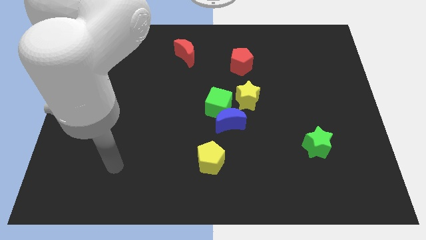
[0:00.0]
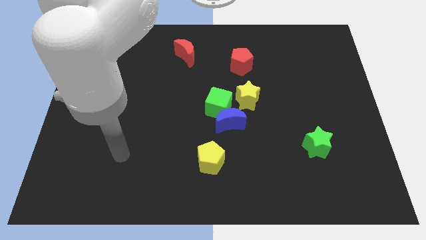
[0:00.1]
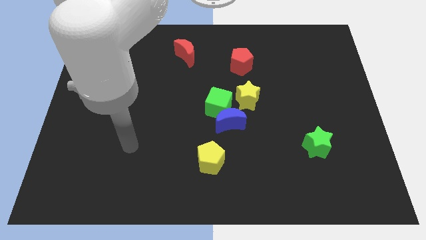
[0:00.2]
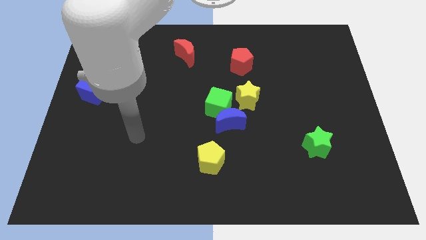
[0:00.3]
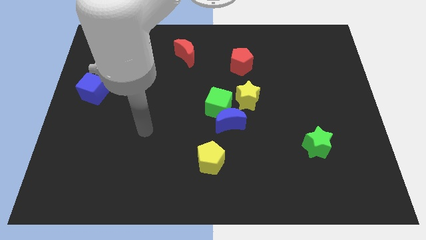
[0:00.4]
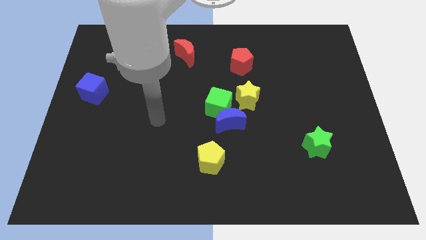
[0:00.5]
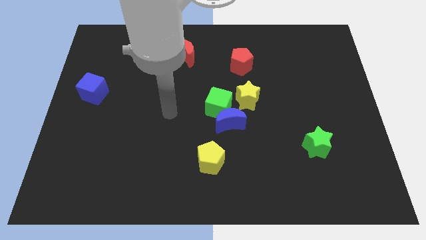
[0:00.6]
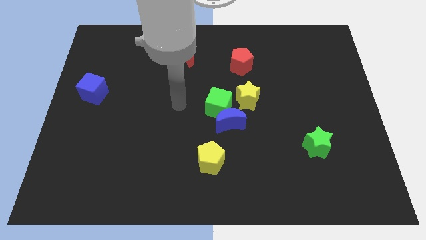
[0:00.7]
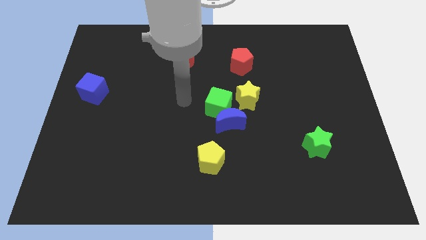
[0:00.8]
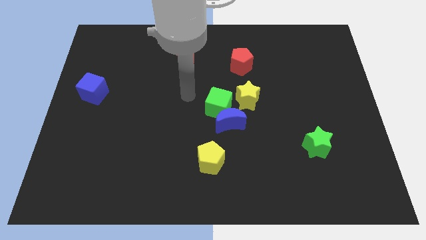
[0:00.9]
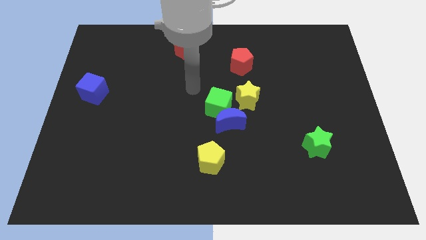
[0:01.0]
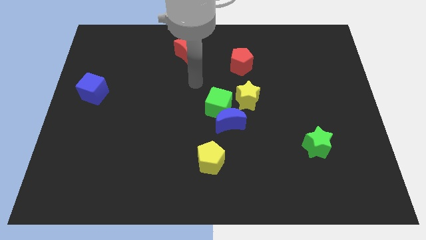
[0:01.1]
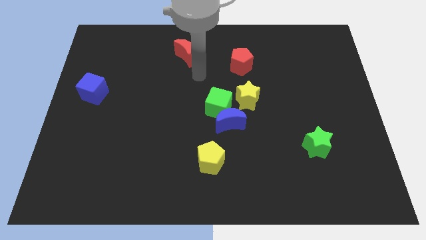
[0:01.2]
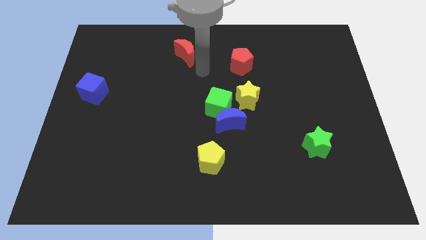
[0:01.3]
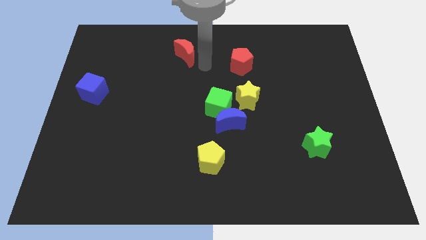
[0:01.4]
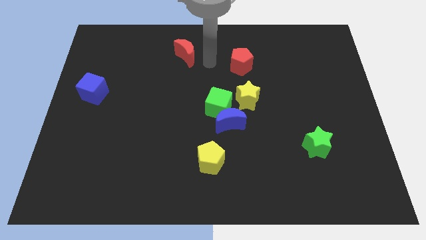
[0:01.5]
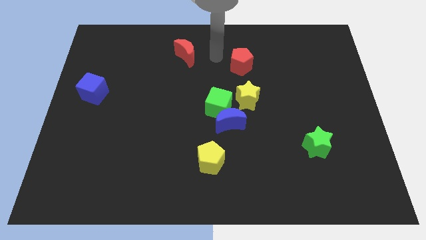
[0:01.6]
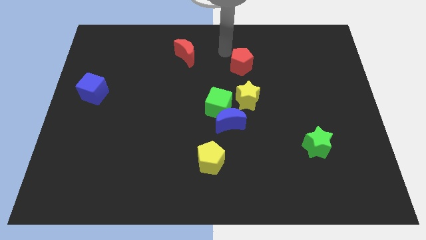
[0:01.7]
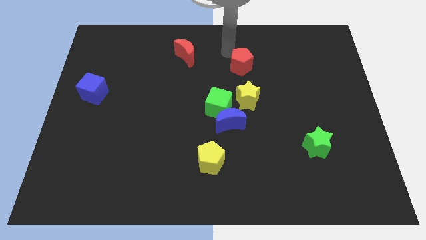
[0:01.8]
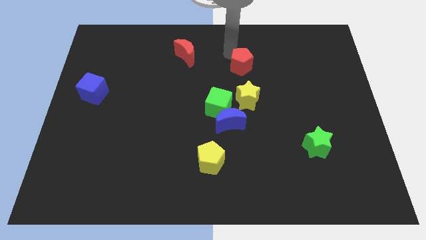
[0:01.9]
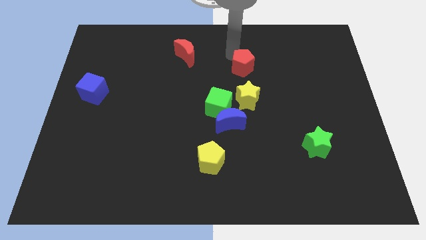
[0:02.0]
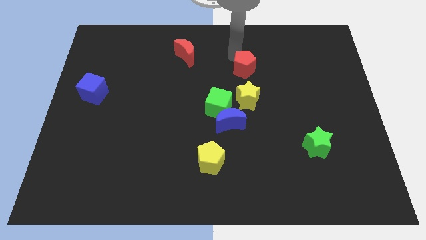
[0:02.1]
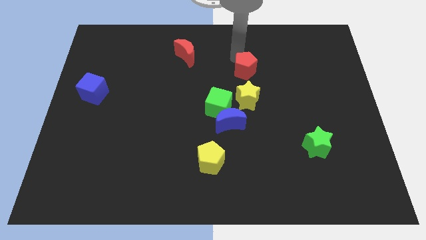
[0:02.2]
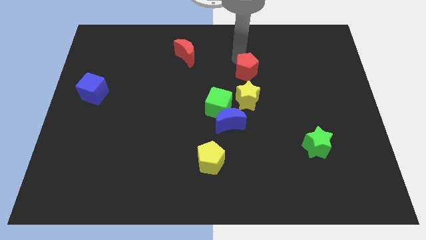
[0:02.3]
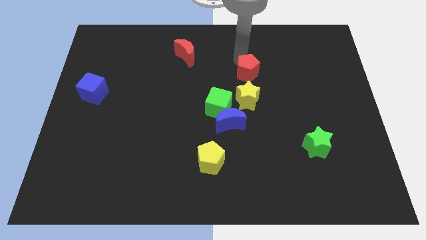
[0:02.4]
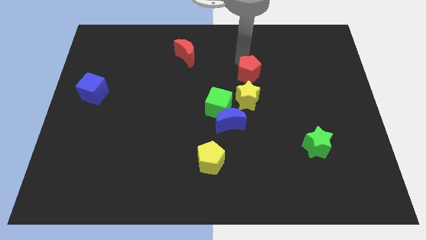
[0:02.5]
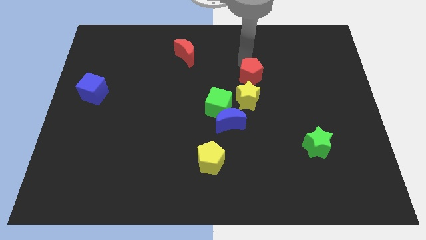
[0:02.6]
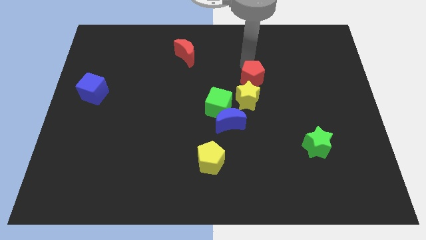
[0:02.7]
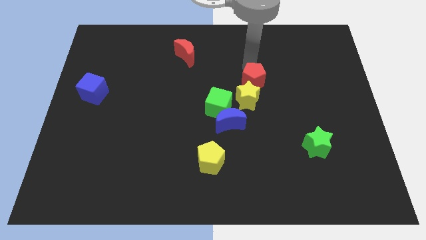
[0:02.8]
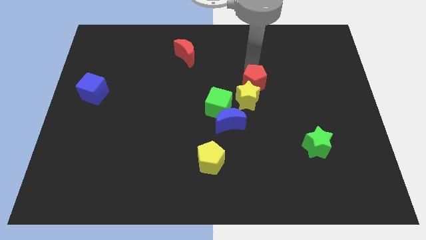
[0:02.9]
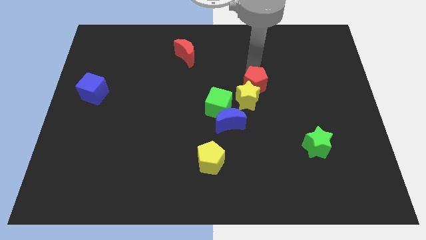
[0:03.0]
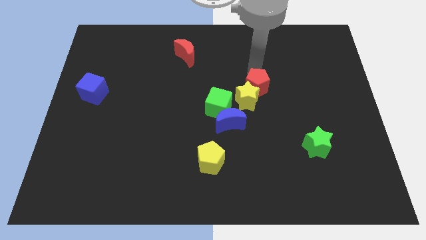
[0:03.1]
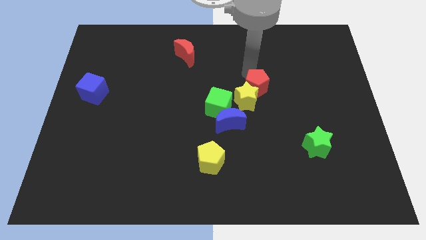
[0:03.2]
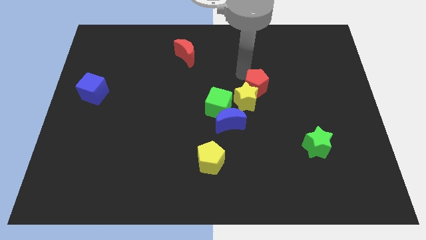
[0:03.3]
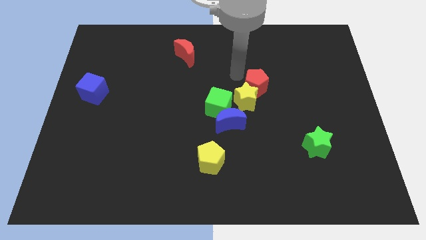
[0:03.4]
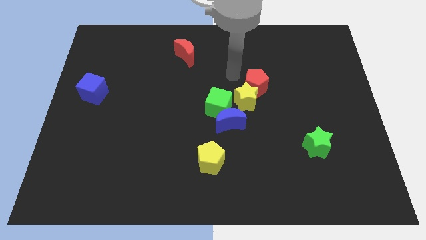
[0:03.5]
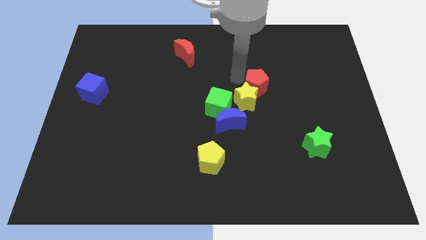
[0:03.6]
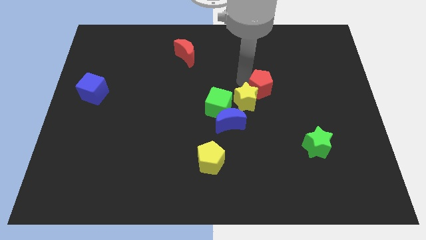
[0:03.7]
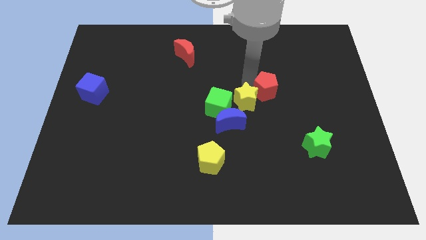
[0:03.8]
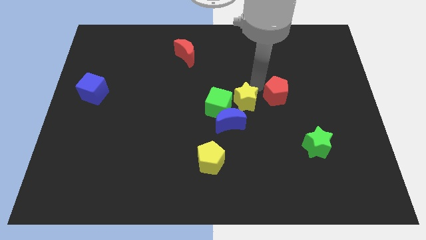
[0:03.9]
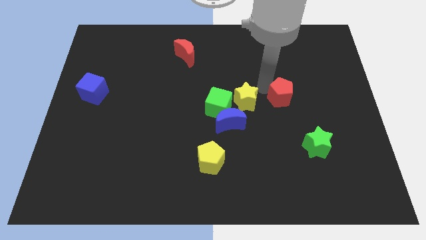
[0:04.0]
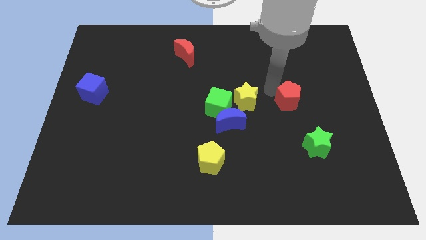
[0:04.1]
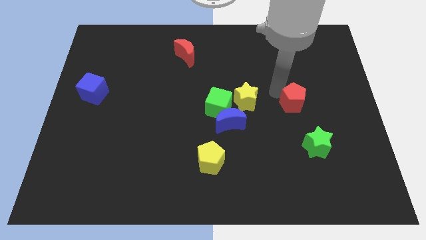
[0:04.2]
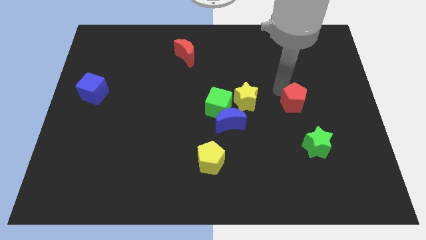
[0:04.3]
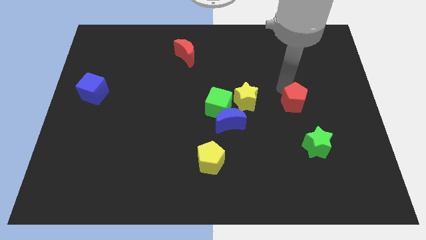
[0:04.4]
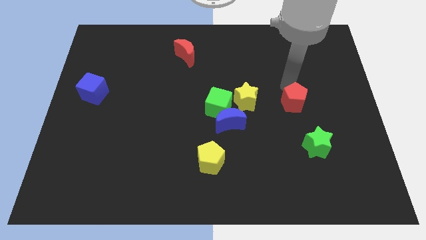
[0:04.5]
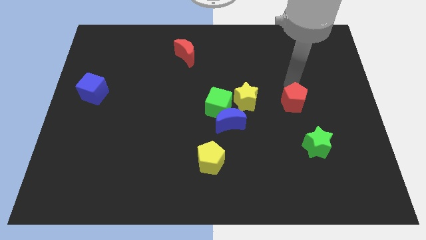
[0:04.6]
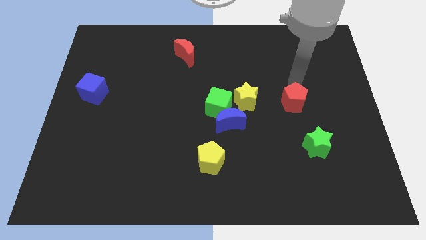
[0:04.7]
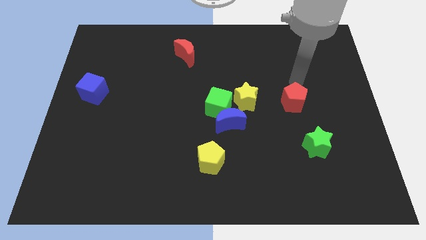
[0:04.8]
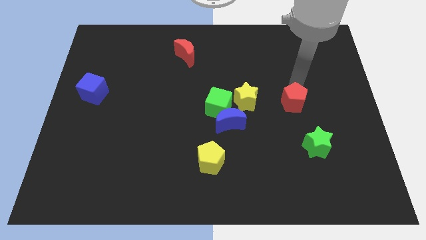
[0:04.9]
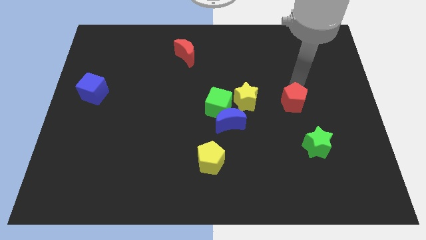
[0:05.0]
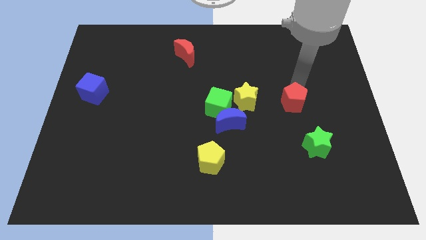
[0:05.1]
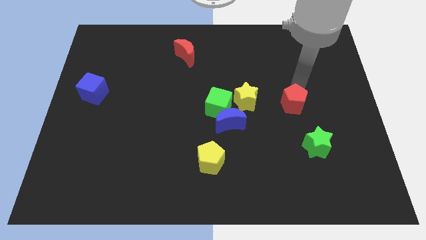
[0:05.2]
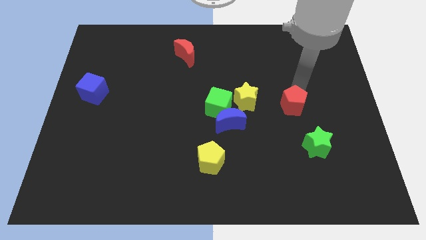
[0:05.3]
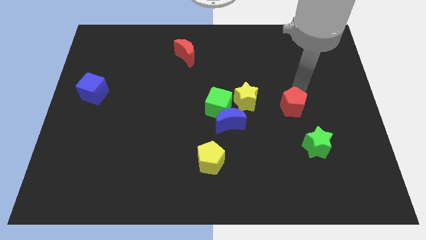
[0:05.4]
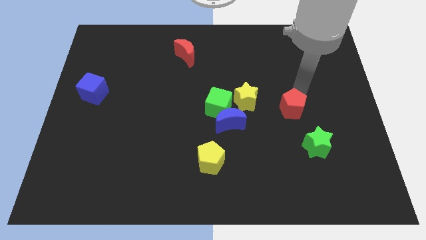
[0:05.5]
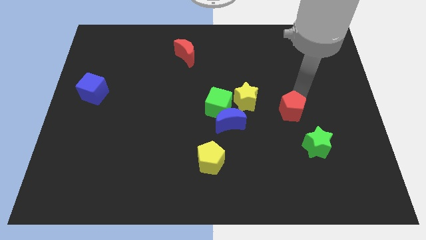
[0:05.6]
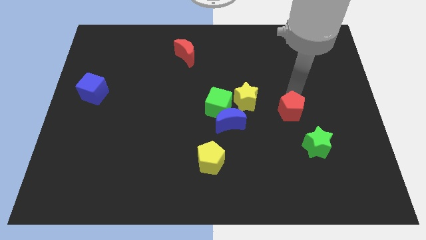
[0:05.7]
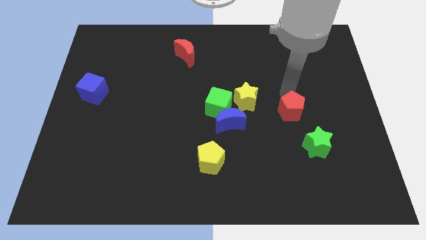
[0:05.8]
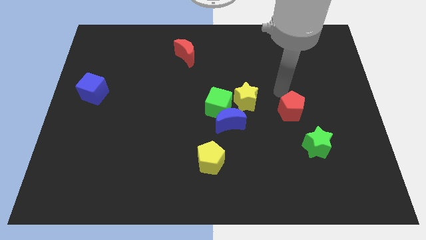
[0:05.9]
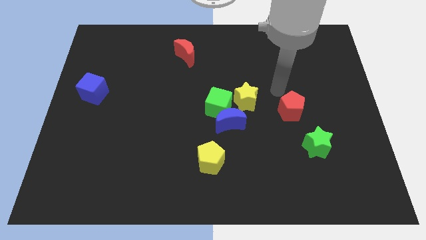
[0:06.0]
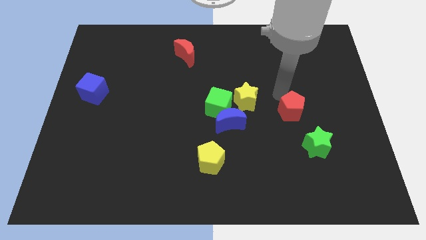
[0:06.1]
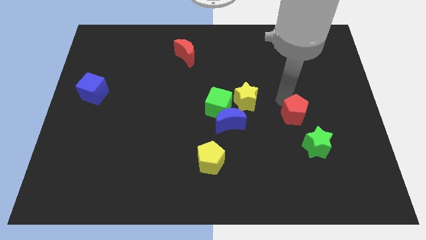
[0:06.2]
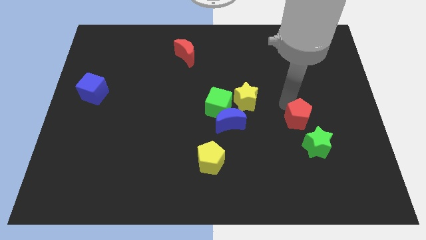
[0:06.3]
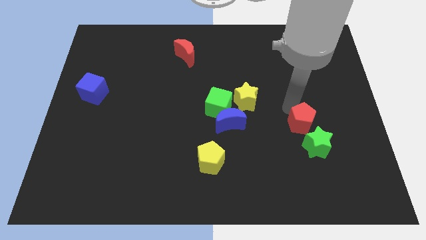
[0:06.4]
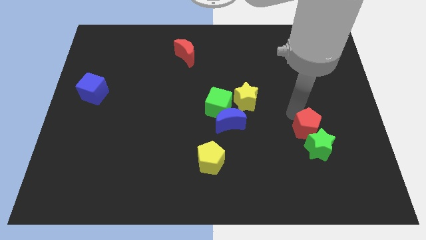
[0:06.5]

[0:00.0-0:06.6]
put the red pentagon towards the green star

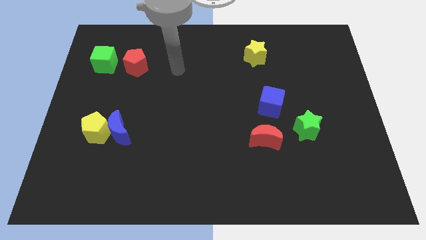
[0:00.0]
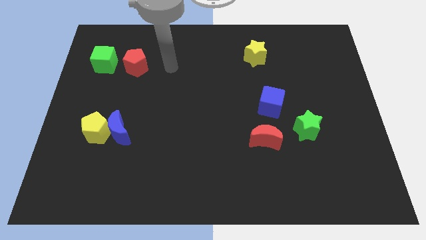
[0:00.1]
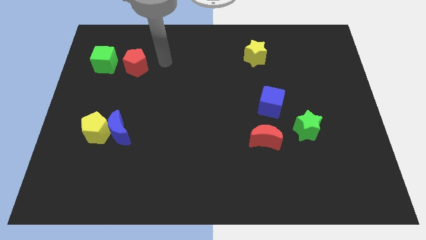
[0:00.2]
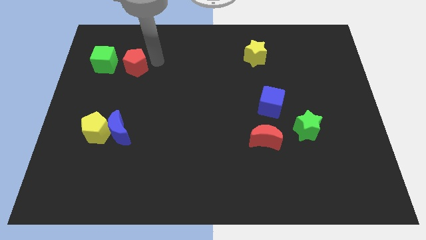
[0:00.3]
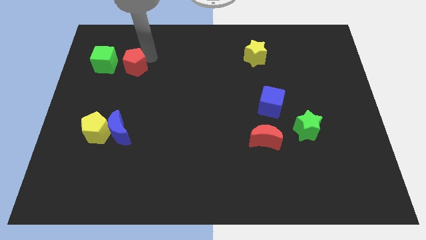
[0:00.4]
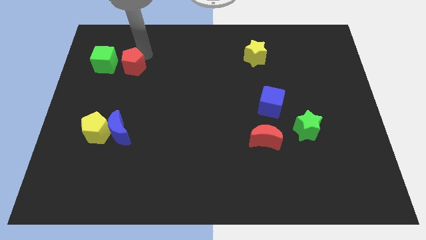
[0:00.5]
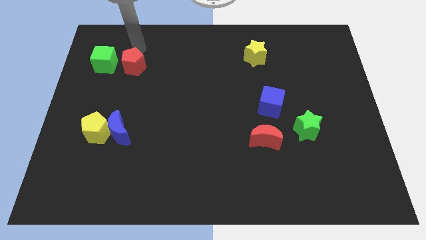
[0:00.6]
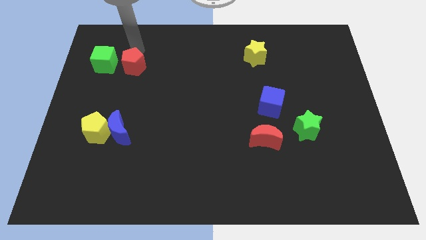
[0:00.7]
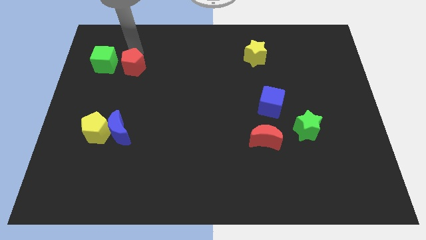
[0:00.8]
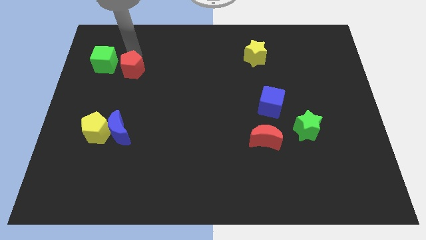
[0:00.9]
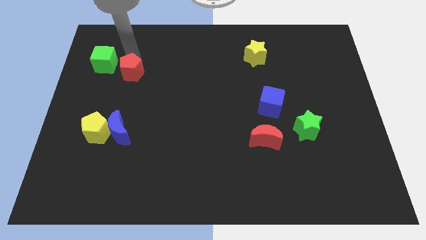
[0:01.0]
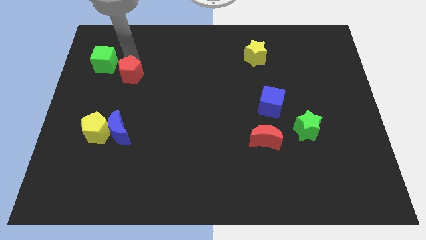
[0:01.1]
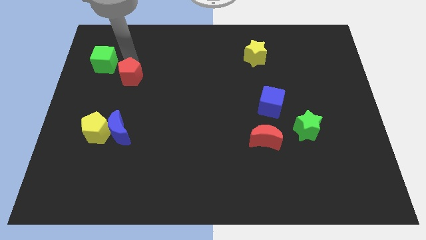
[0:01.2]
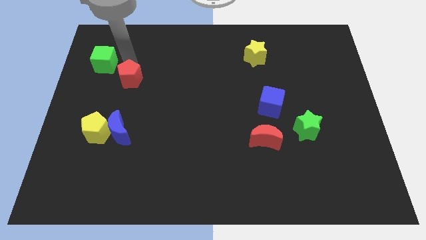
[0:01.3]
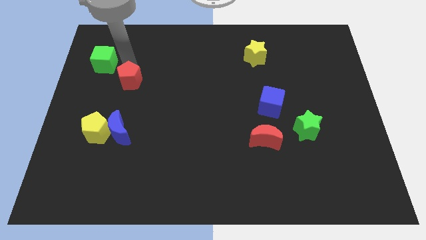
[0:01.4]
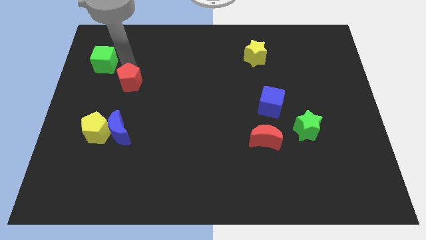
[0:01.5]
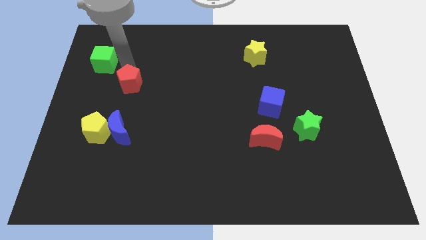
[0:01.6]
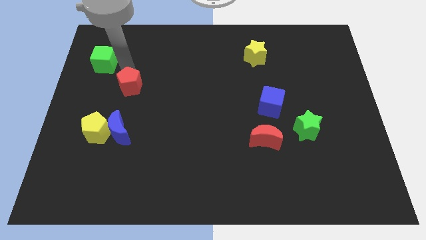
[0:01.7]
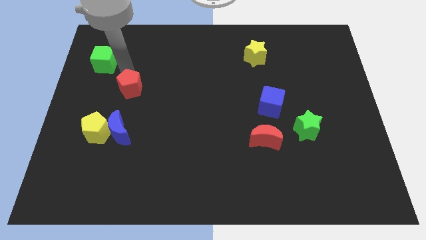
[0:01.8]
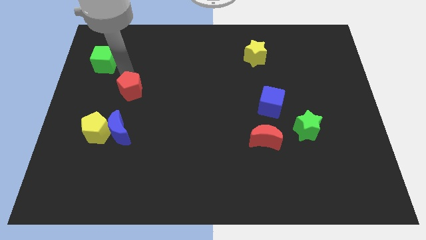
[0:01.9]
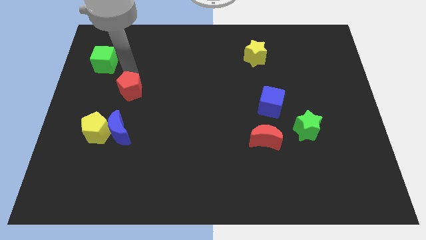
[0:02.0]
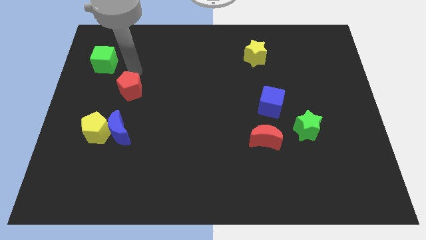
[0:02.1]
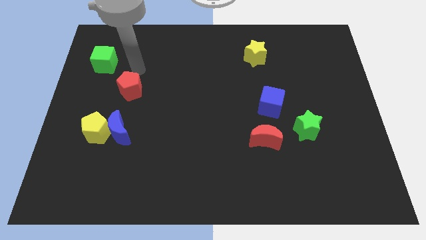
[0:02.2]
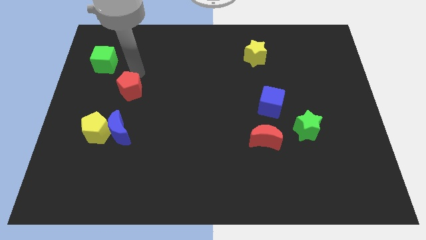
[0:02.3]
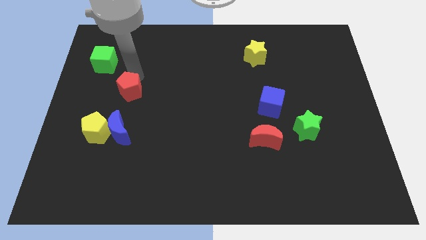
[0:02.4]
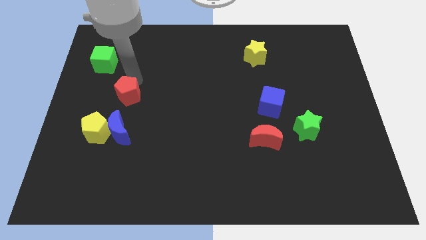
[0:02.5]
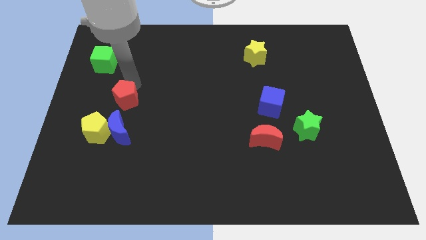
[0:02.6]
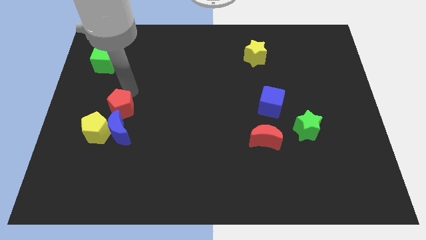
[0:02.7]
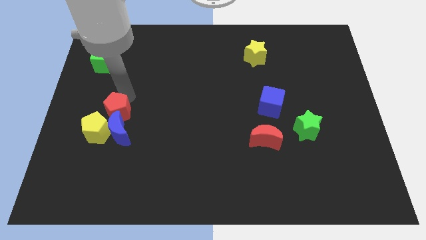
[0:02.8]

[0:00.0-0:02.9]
push the red pentagon close to the blue moon
